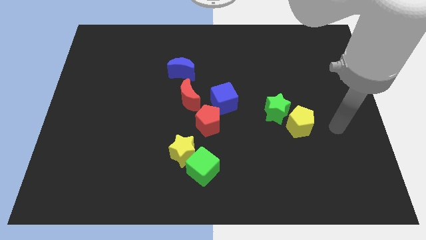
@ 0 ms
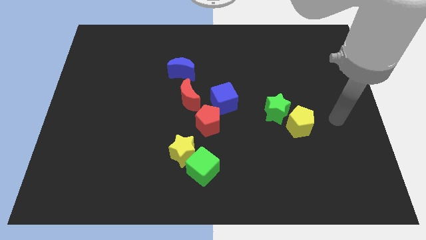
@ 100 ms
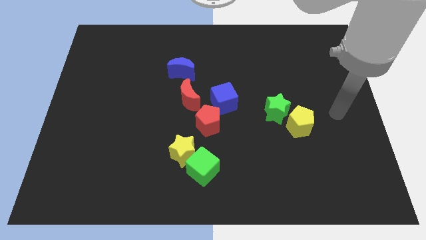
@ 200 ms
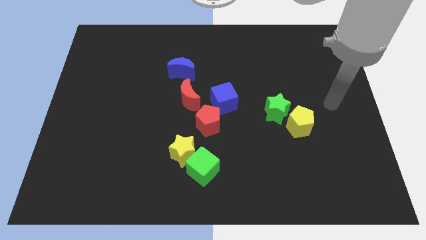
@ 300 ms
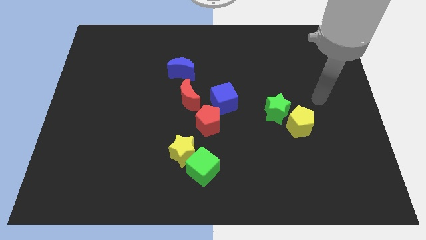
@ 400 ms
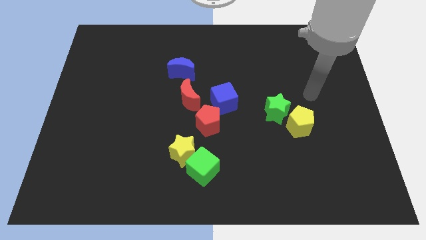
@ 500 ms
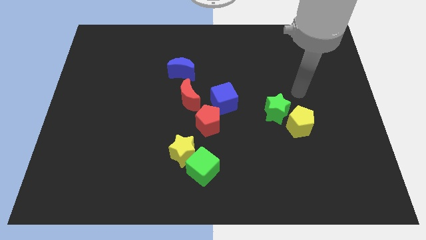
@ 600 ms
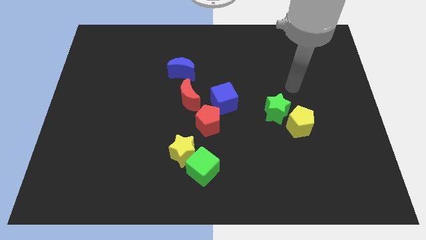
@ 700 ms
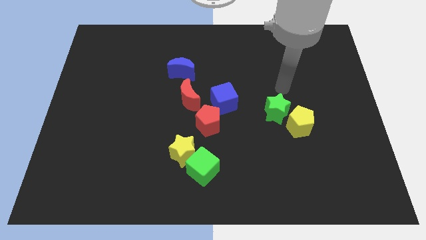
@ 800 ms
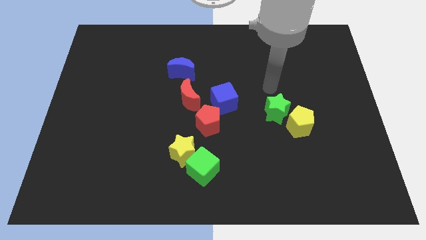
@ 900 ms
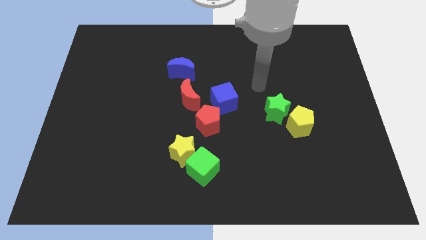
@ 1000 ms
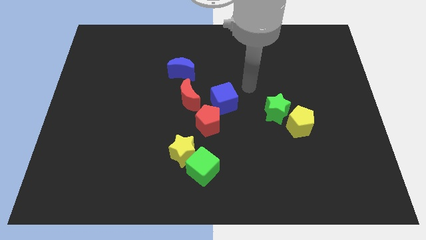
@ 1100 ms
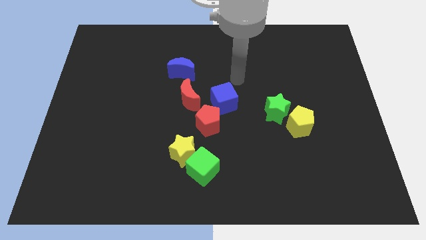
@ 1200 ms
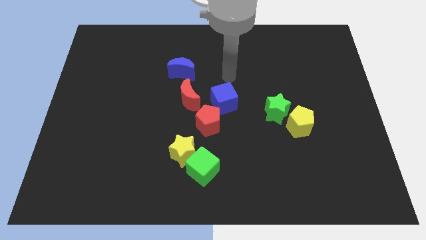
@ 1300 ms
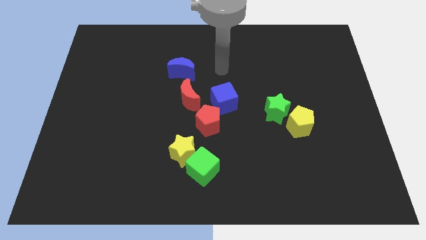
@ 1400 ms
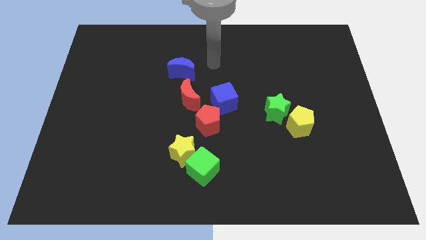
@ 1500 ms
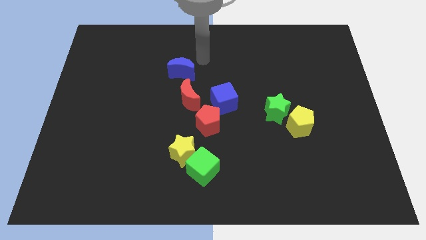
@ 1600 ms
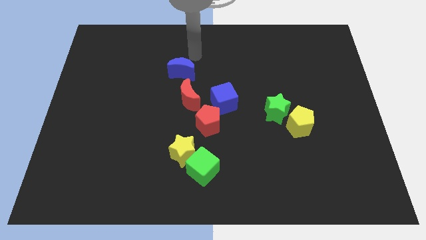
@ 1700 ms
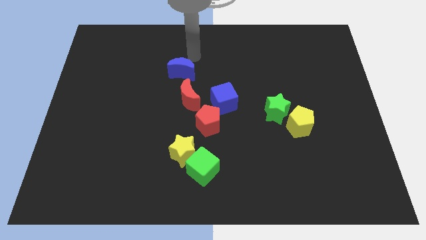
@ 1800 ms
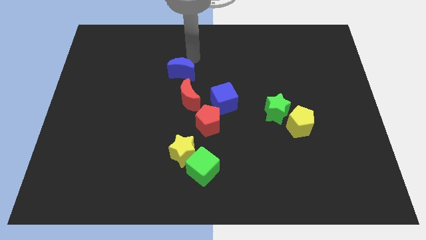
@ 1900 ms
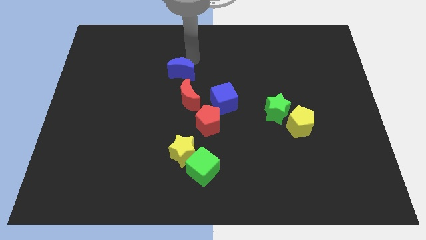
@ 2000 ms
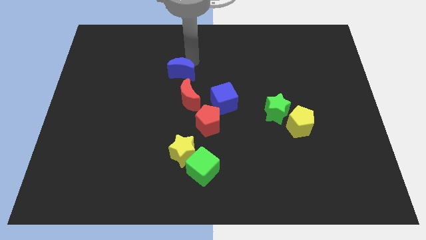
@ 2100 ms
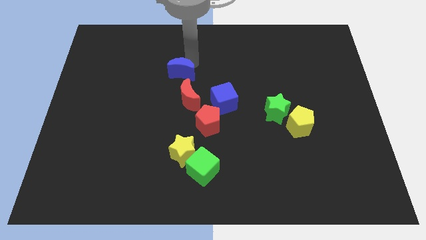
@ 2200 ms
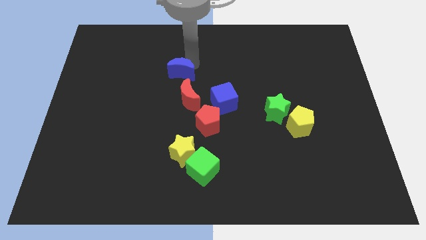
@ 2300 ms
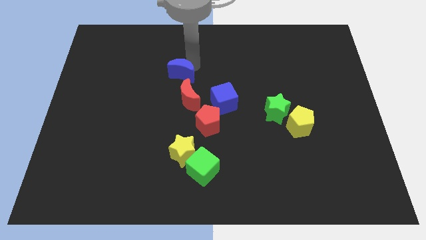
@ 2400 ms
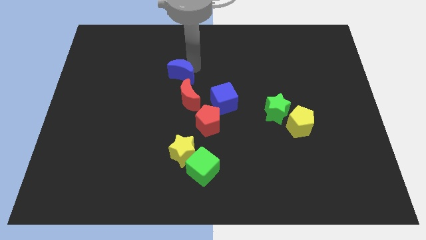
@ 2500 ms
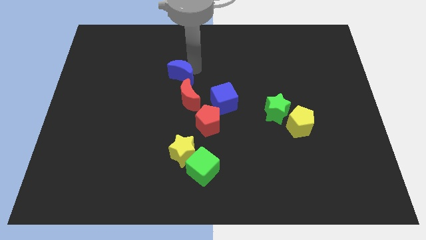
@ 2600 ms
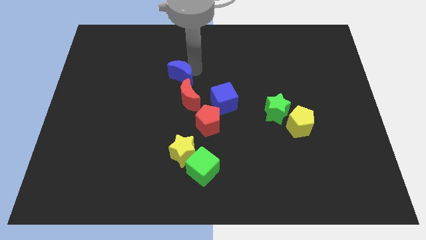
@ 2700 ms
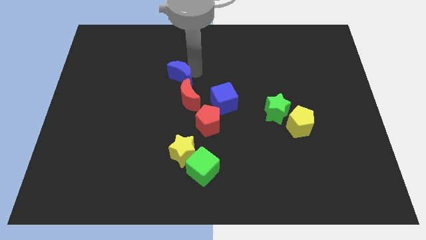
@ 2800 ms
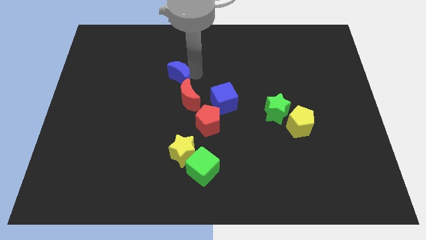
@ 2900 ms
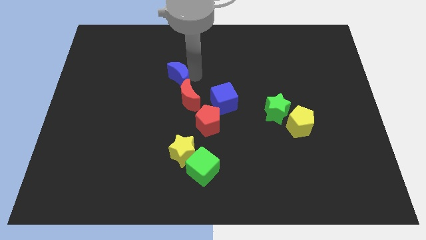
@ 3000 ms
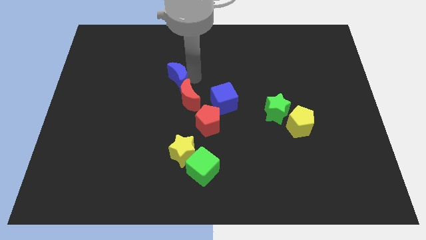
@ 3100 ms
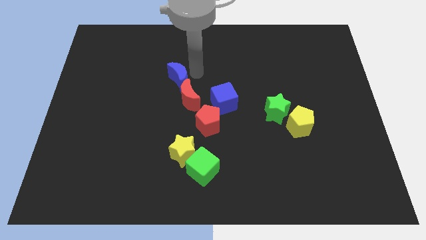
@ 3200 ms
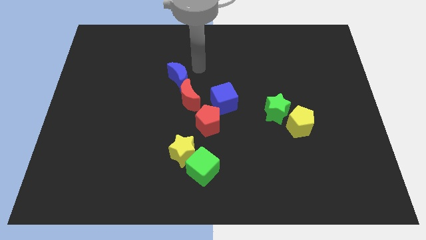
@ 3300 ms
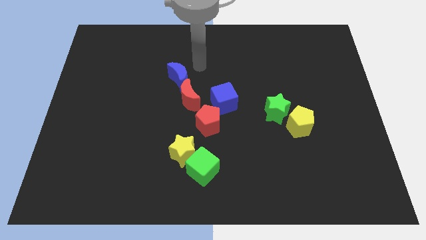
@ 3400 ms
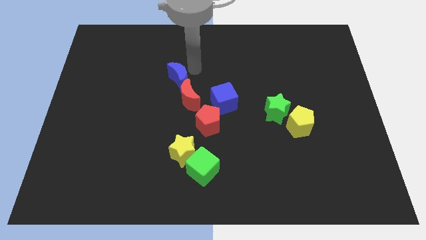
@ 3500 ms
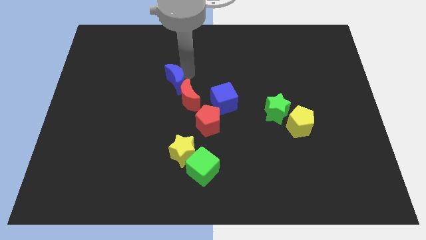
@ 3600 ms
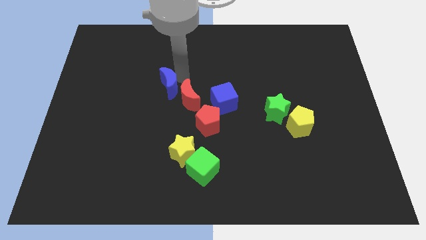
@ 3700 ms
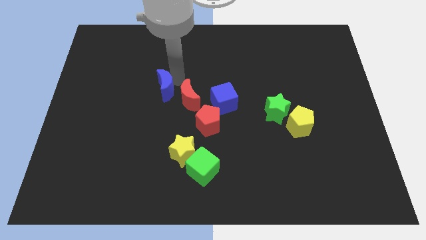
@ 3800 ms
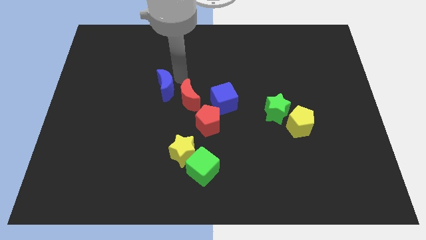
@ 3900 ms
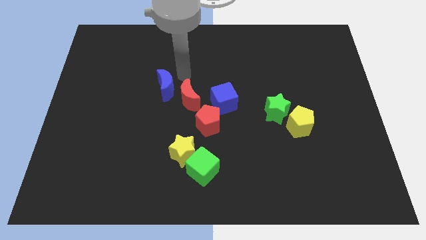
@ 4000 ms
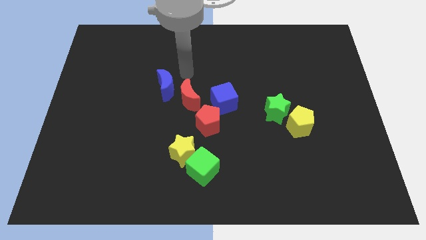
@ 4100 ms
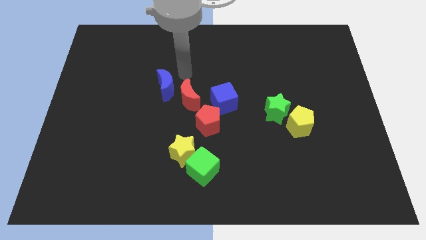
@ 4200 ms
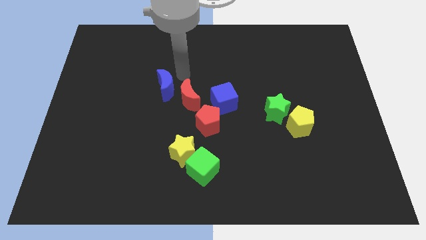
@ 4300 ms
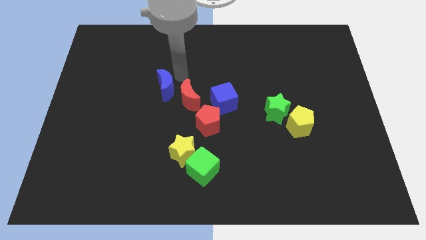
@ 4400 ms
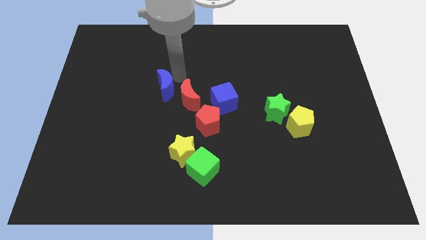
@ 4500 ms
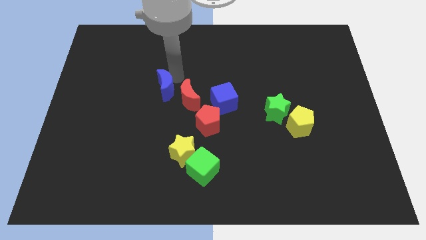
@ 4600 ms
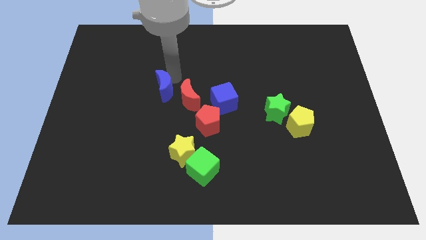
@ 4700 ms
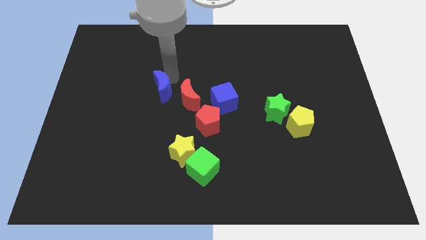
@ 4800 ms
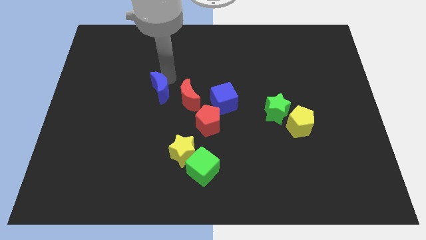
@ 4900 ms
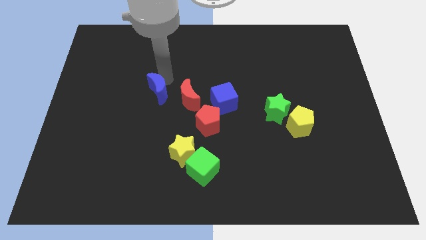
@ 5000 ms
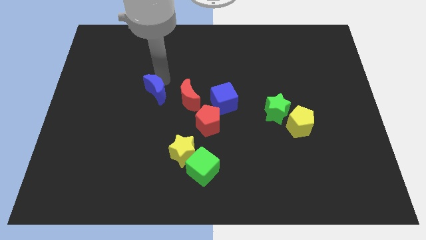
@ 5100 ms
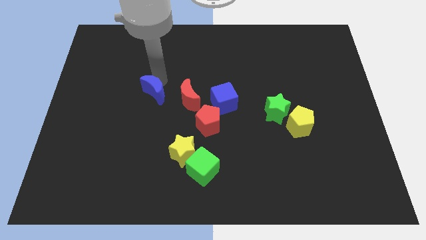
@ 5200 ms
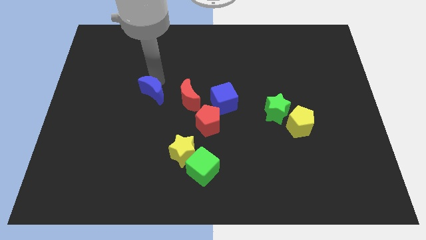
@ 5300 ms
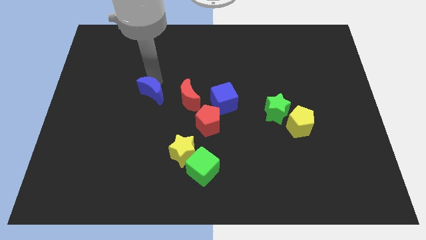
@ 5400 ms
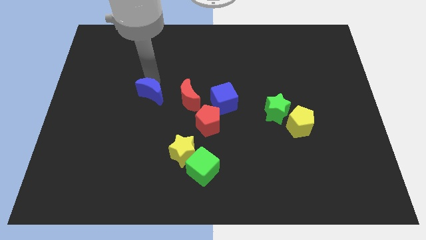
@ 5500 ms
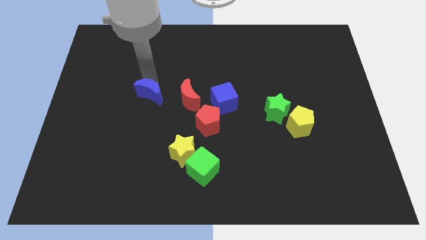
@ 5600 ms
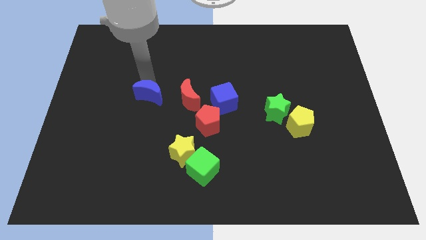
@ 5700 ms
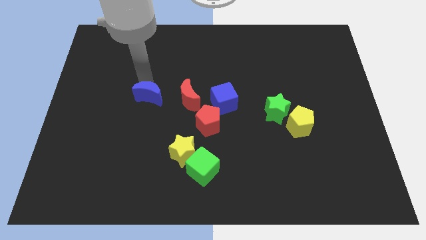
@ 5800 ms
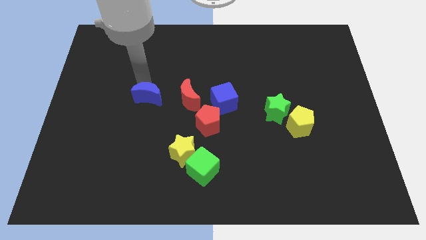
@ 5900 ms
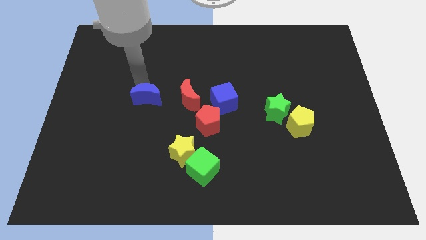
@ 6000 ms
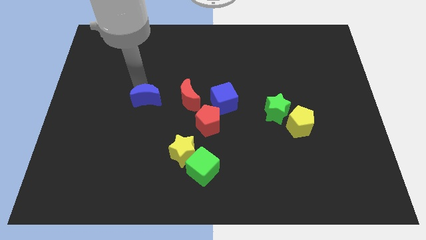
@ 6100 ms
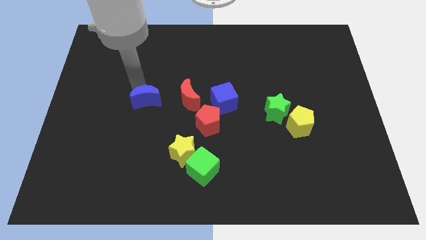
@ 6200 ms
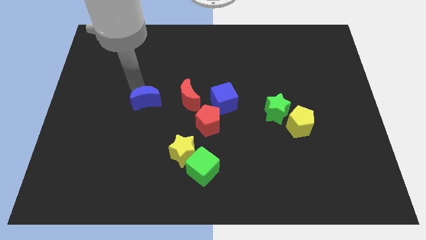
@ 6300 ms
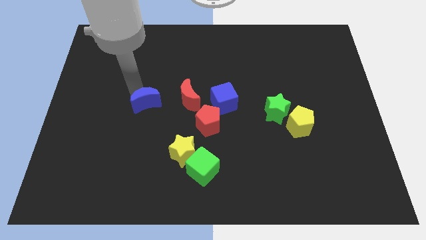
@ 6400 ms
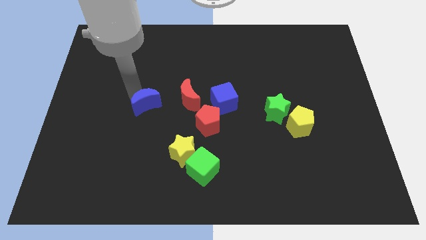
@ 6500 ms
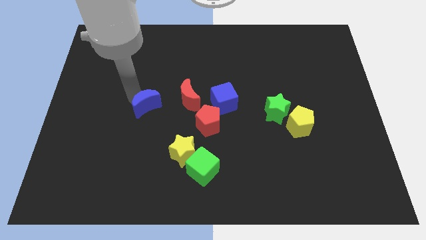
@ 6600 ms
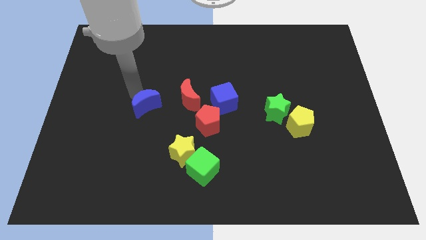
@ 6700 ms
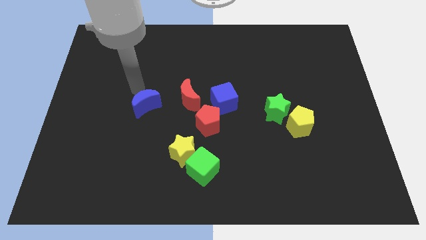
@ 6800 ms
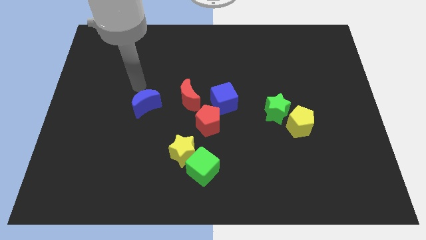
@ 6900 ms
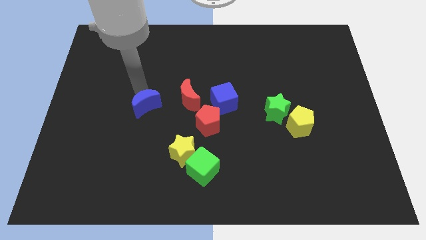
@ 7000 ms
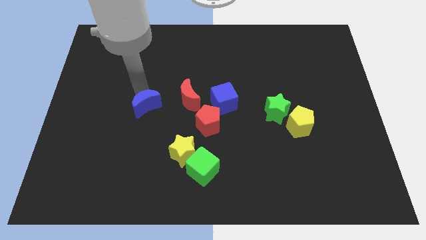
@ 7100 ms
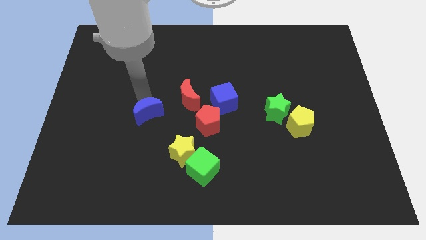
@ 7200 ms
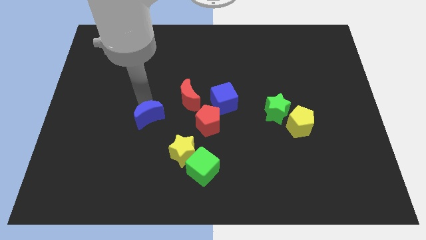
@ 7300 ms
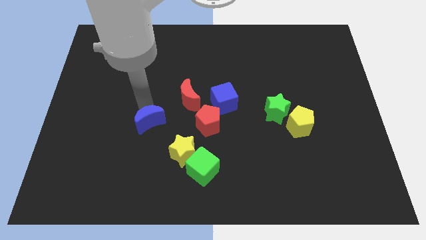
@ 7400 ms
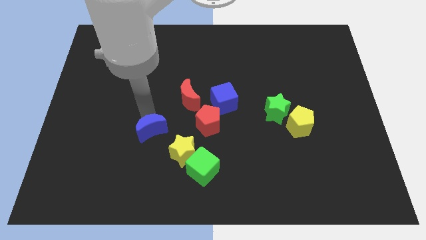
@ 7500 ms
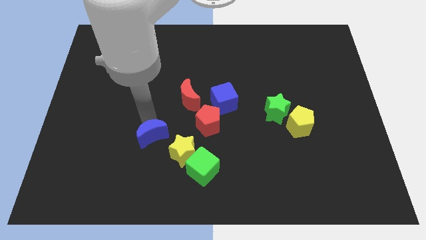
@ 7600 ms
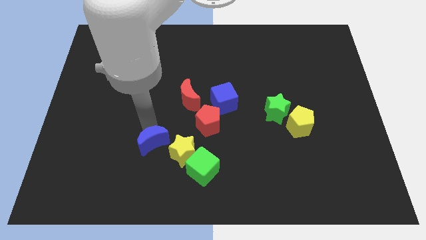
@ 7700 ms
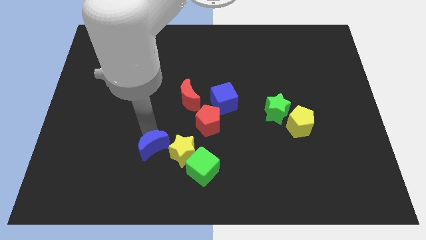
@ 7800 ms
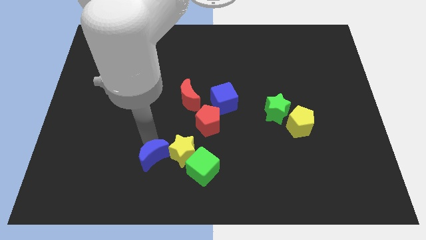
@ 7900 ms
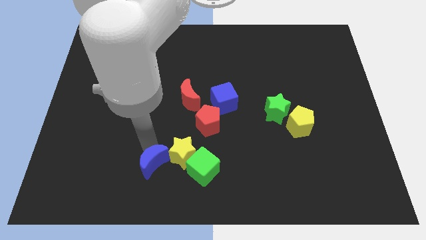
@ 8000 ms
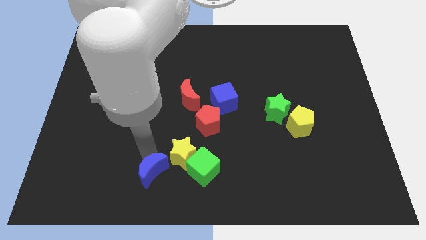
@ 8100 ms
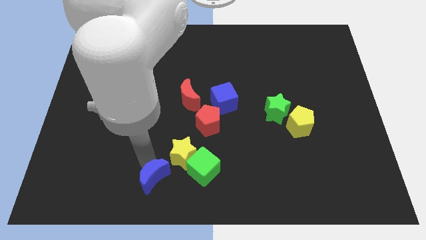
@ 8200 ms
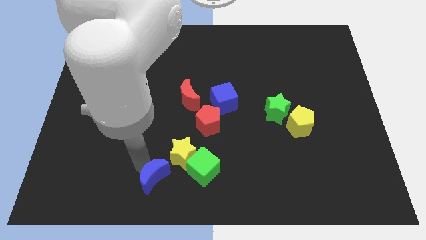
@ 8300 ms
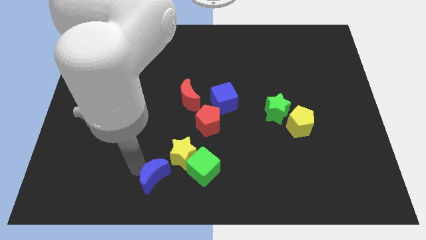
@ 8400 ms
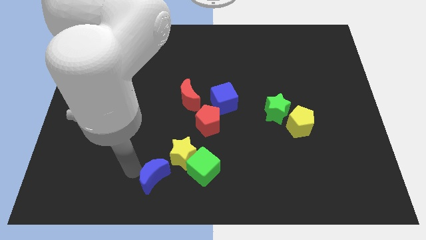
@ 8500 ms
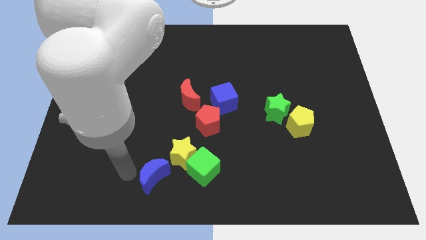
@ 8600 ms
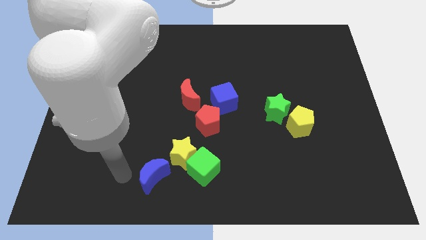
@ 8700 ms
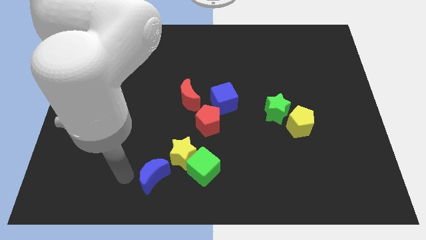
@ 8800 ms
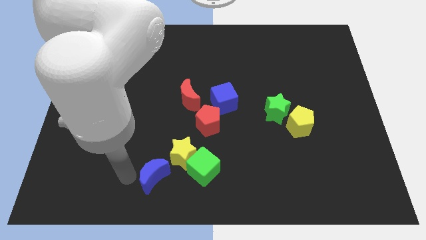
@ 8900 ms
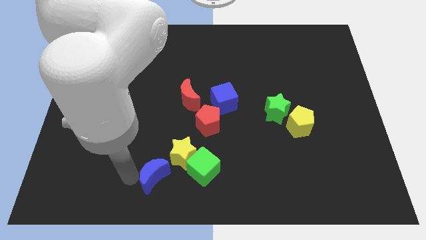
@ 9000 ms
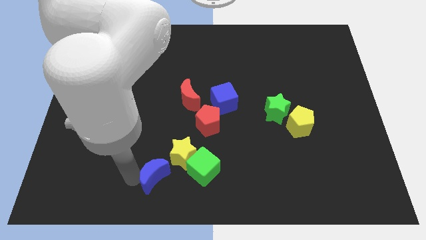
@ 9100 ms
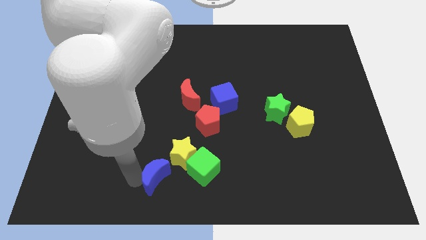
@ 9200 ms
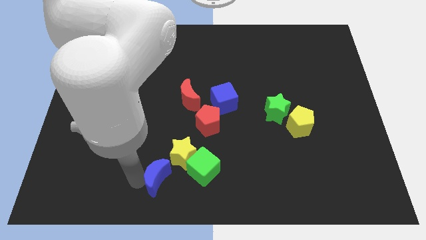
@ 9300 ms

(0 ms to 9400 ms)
move the blue moon to the bottom
